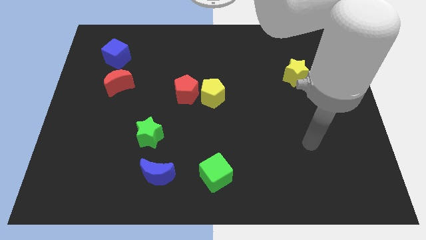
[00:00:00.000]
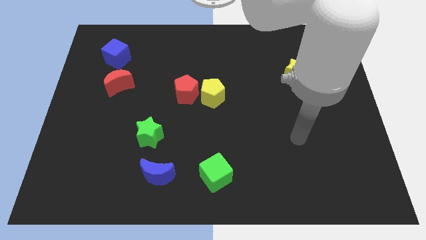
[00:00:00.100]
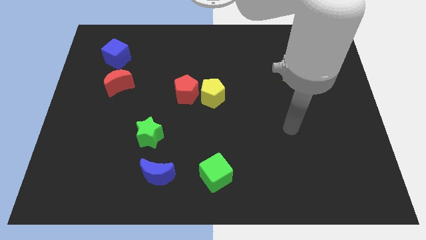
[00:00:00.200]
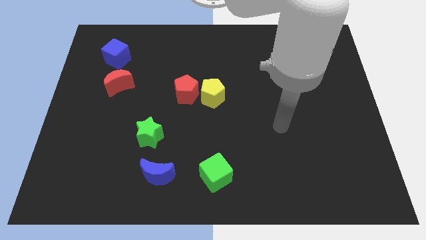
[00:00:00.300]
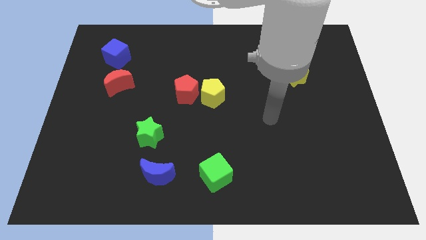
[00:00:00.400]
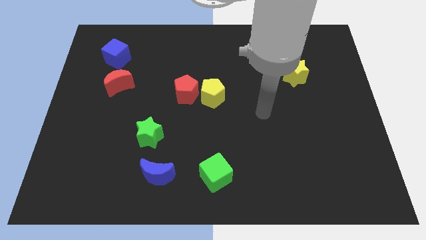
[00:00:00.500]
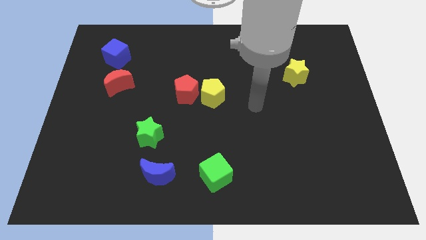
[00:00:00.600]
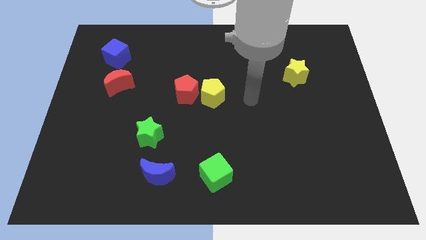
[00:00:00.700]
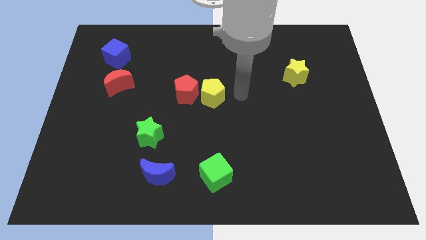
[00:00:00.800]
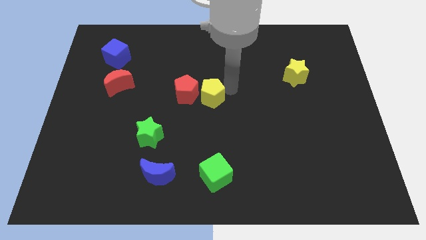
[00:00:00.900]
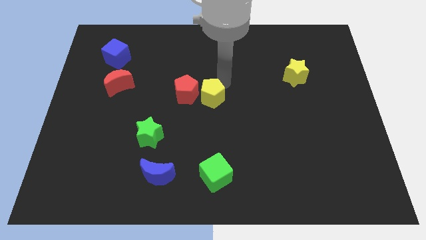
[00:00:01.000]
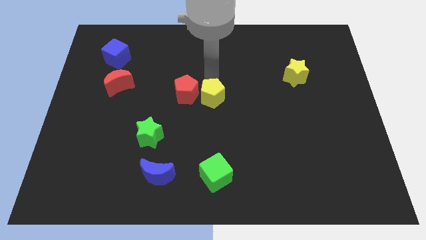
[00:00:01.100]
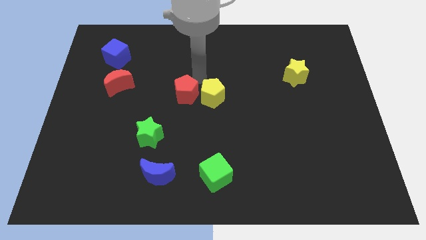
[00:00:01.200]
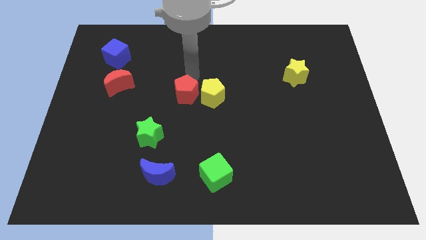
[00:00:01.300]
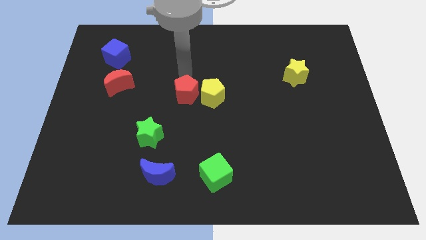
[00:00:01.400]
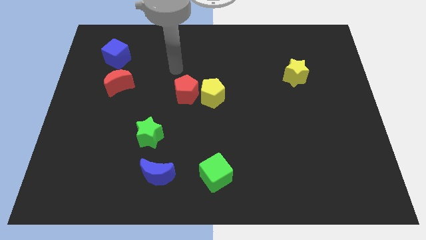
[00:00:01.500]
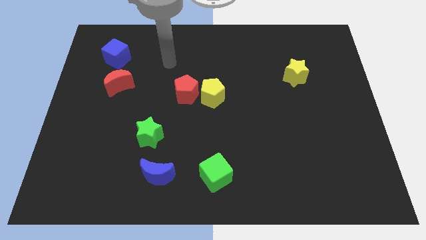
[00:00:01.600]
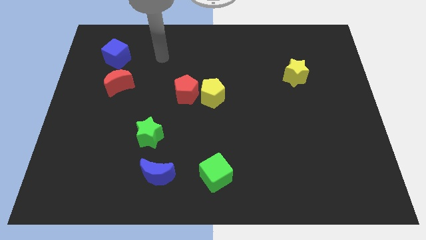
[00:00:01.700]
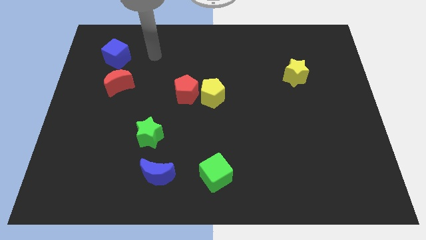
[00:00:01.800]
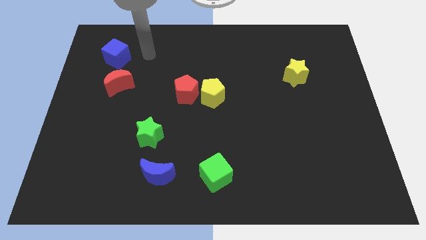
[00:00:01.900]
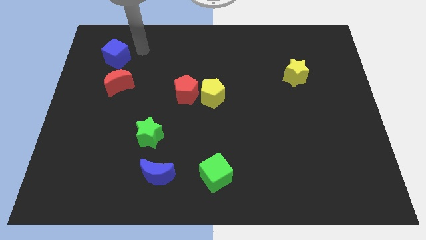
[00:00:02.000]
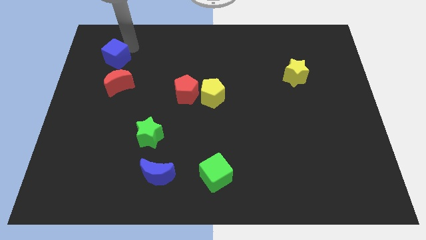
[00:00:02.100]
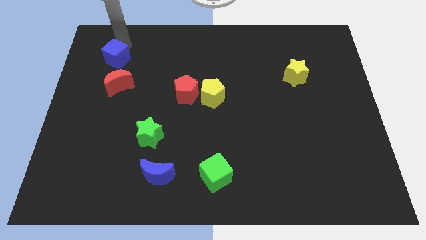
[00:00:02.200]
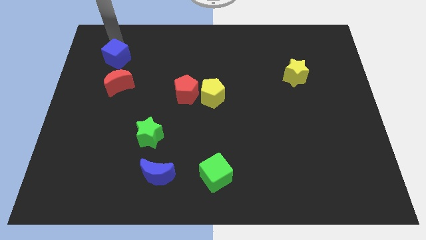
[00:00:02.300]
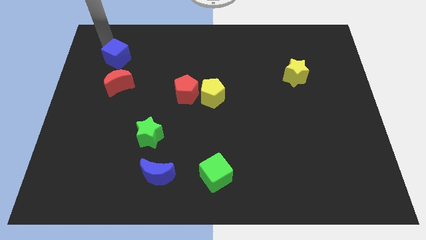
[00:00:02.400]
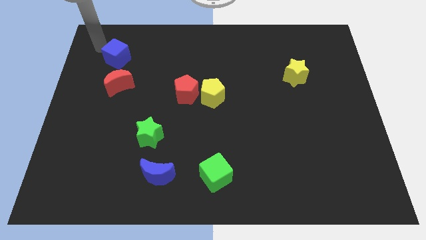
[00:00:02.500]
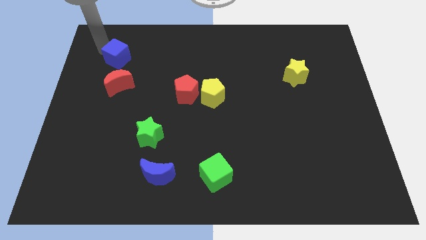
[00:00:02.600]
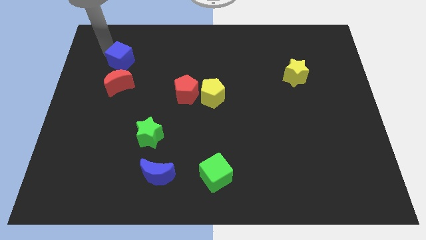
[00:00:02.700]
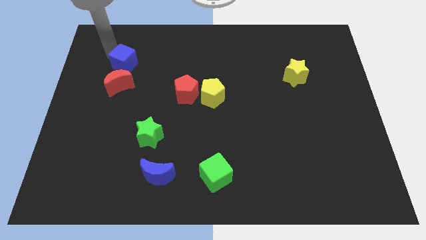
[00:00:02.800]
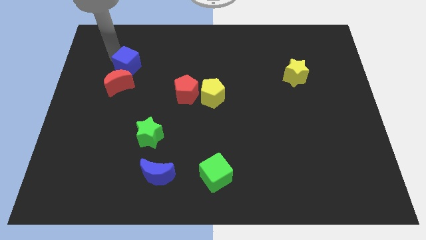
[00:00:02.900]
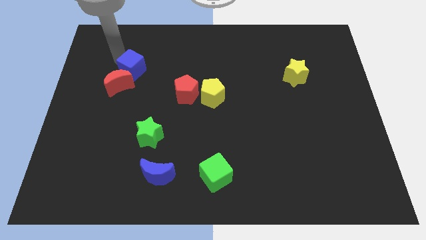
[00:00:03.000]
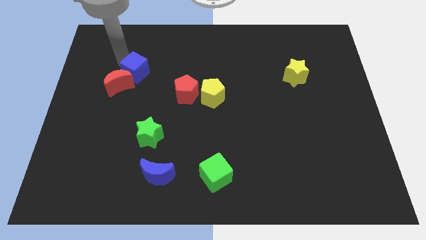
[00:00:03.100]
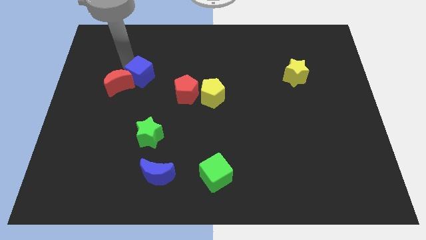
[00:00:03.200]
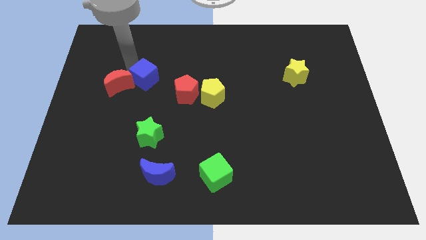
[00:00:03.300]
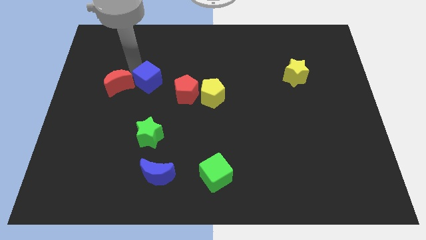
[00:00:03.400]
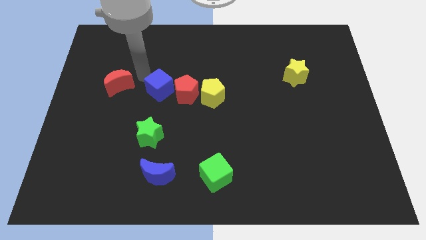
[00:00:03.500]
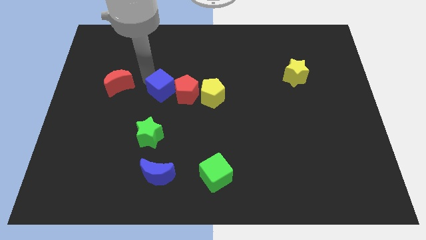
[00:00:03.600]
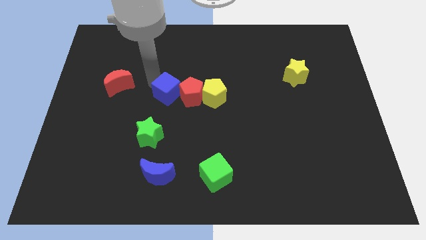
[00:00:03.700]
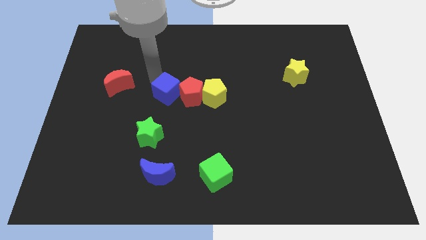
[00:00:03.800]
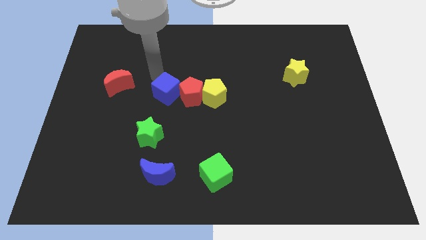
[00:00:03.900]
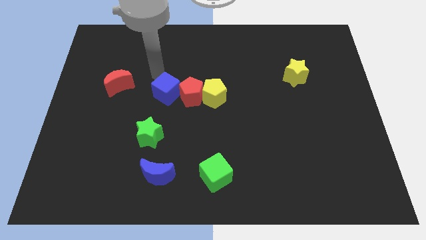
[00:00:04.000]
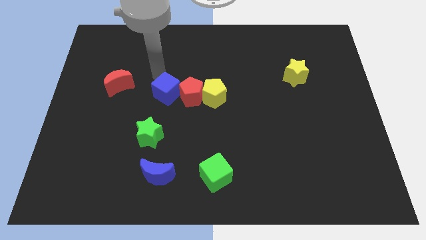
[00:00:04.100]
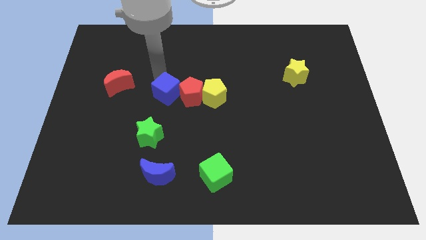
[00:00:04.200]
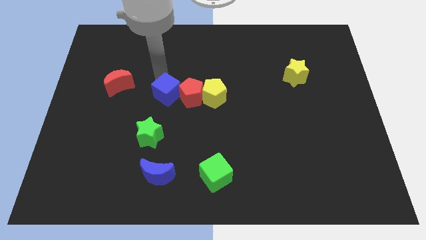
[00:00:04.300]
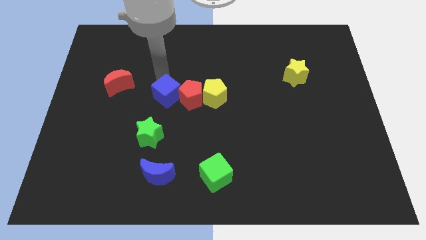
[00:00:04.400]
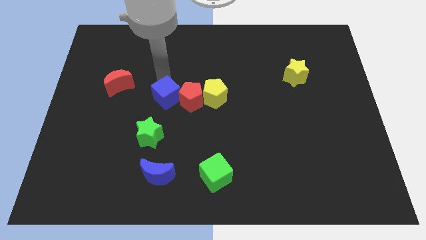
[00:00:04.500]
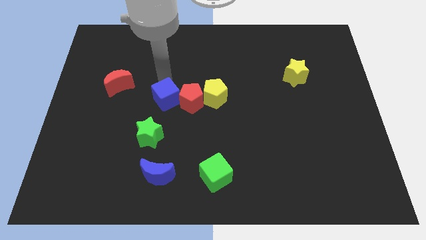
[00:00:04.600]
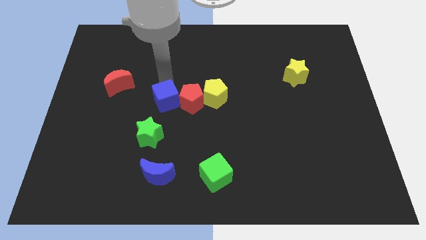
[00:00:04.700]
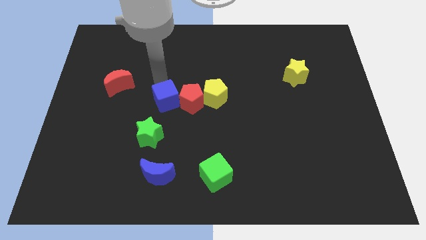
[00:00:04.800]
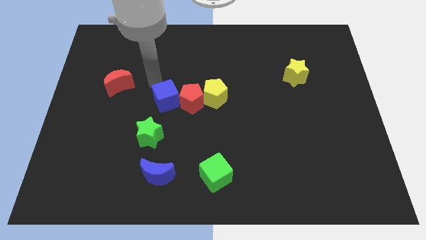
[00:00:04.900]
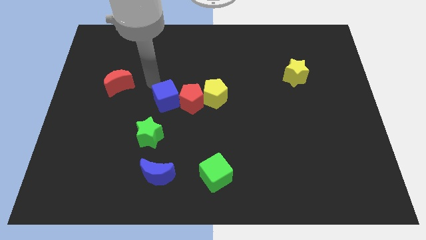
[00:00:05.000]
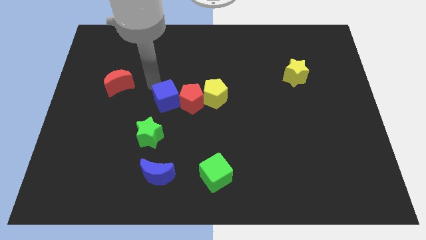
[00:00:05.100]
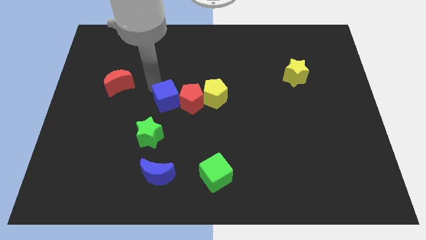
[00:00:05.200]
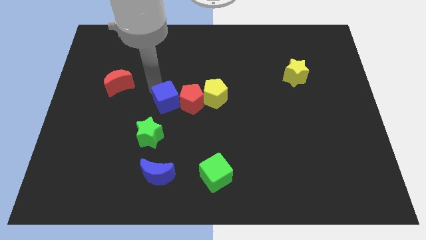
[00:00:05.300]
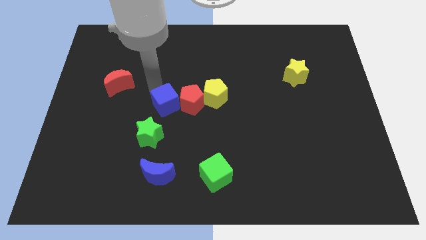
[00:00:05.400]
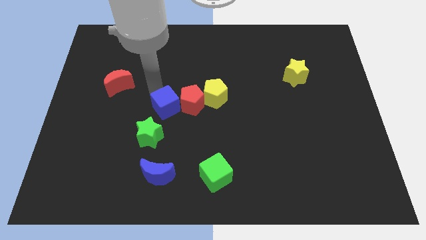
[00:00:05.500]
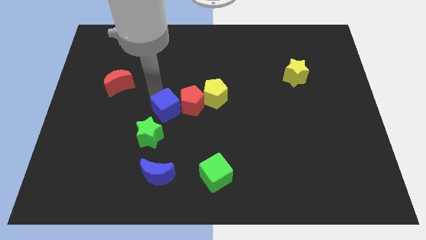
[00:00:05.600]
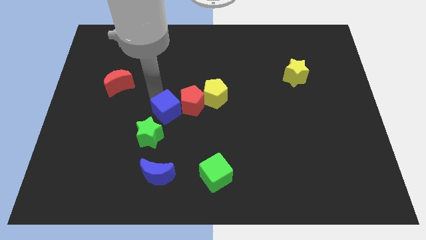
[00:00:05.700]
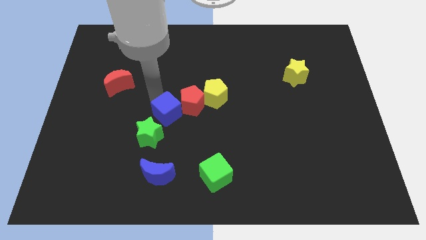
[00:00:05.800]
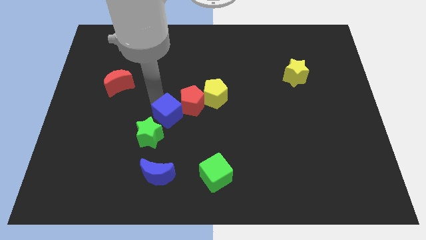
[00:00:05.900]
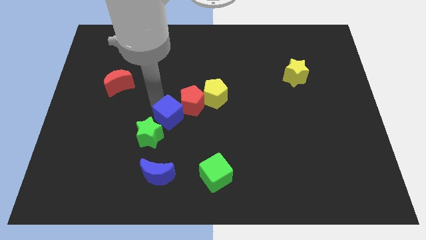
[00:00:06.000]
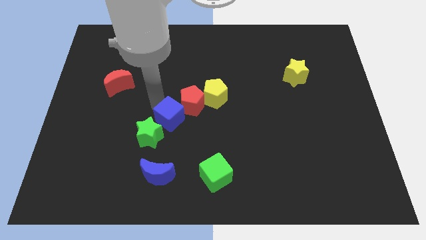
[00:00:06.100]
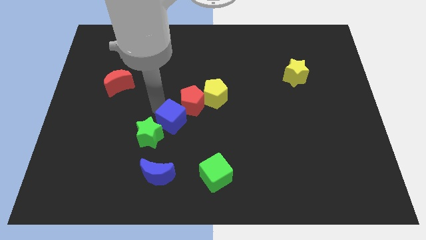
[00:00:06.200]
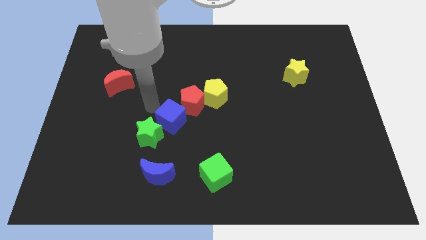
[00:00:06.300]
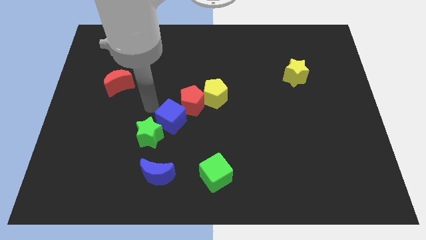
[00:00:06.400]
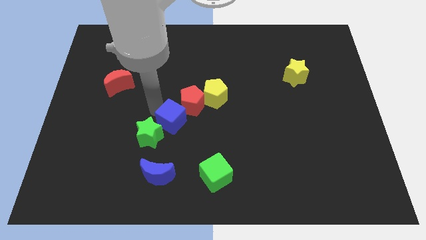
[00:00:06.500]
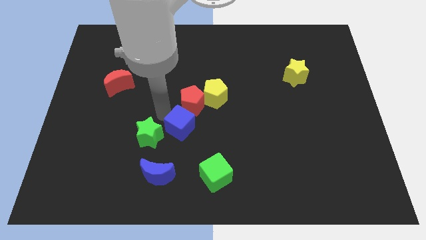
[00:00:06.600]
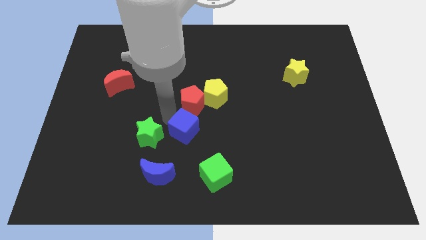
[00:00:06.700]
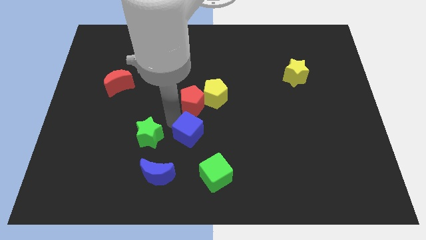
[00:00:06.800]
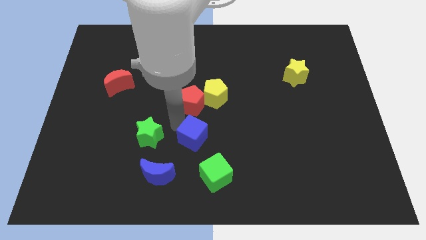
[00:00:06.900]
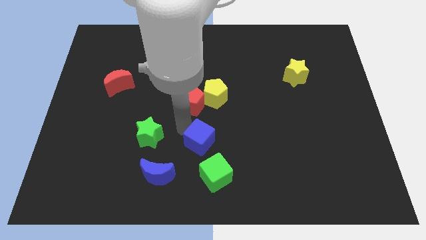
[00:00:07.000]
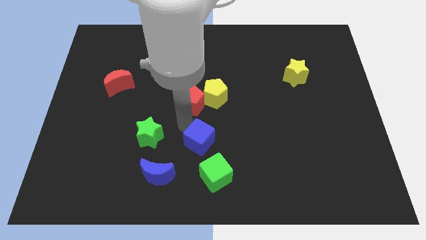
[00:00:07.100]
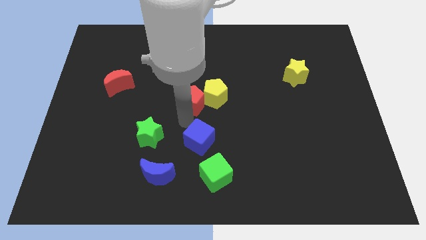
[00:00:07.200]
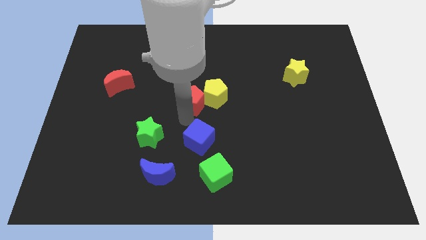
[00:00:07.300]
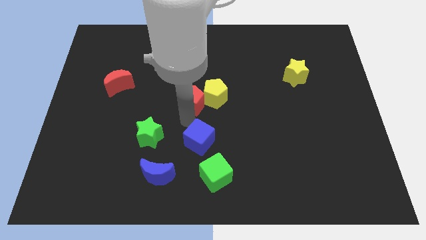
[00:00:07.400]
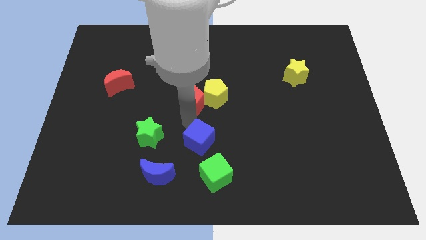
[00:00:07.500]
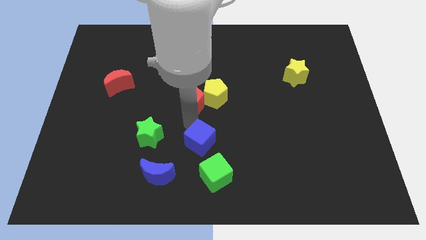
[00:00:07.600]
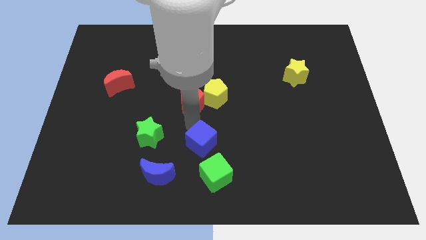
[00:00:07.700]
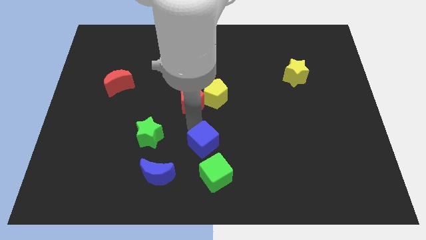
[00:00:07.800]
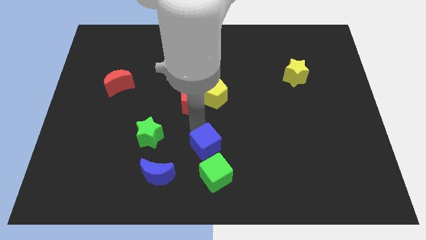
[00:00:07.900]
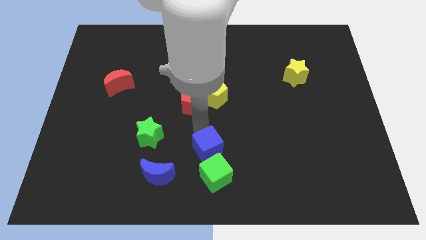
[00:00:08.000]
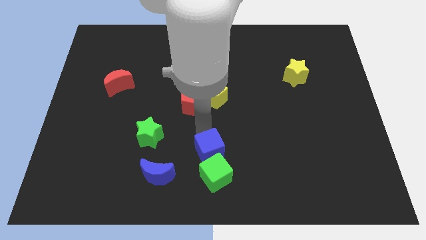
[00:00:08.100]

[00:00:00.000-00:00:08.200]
move the blue cube next to the green cube
